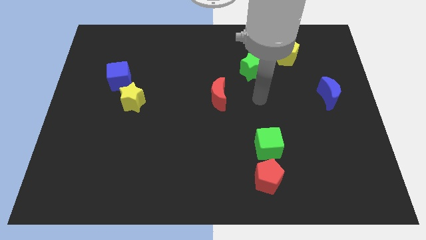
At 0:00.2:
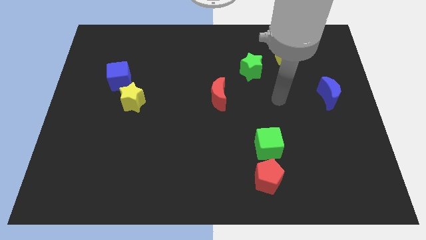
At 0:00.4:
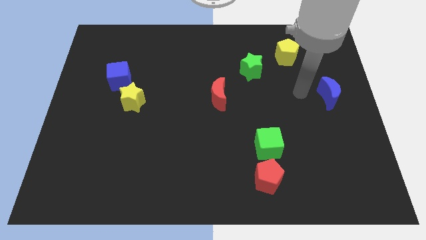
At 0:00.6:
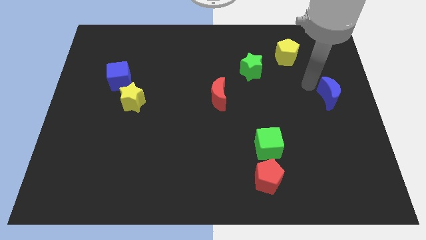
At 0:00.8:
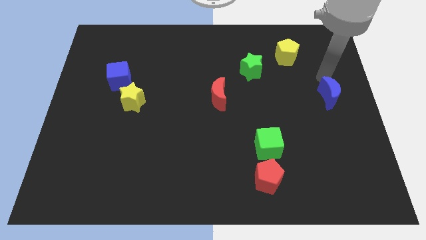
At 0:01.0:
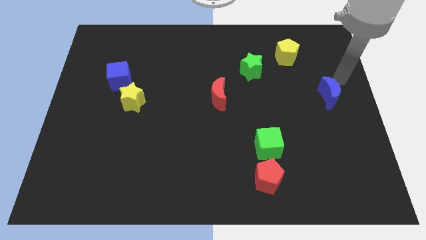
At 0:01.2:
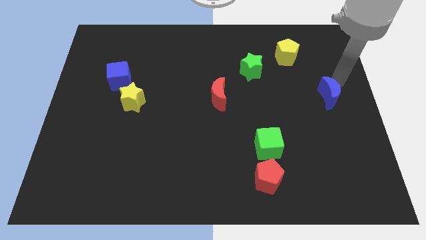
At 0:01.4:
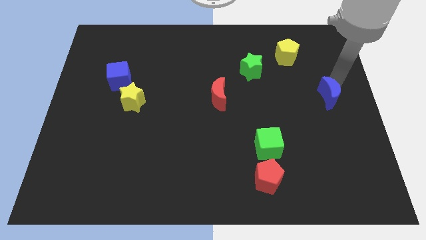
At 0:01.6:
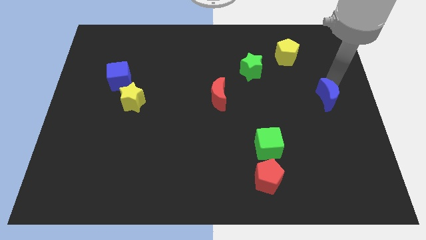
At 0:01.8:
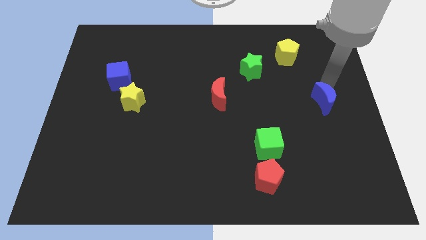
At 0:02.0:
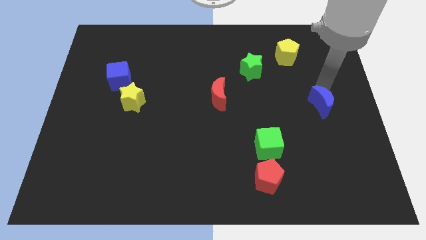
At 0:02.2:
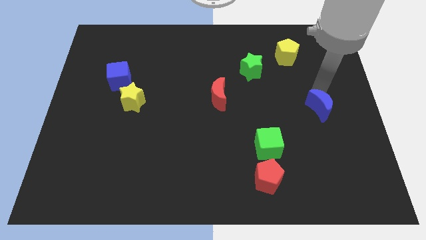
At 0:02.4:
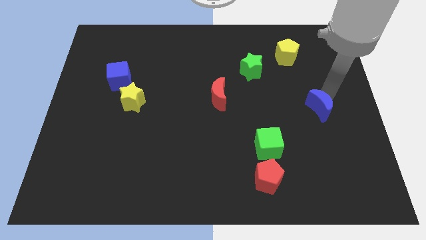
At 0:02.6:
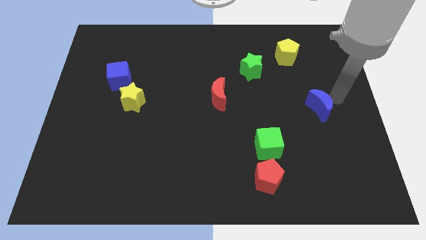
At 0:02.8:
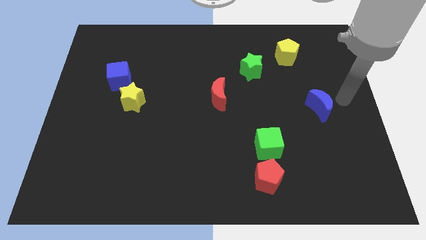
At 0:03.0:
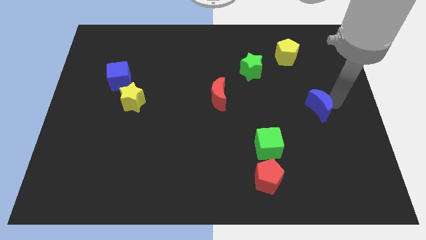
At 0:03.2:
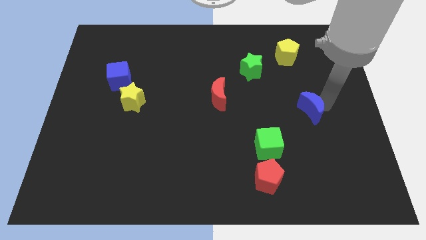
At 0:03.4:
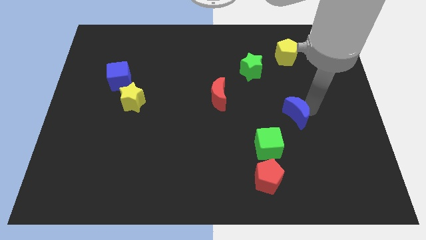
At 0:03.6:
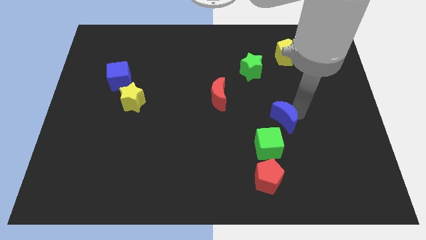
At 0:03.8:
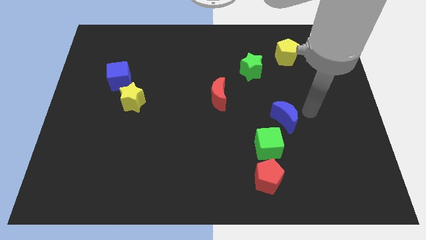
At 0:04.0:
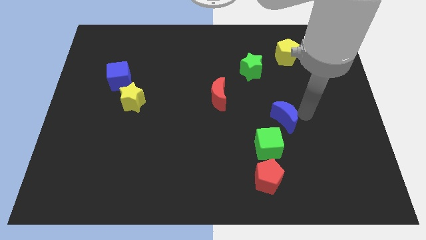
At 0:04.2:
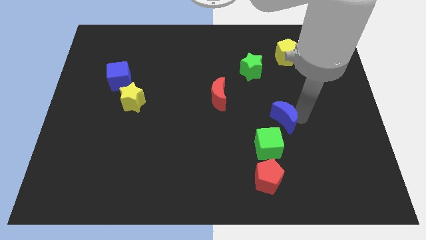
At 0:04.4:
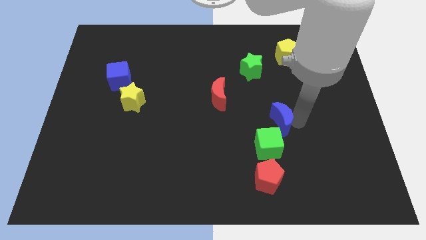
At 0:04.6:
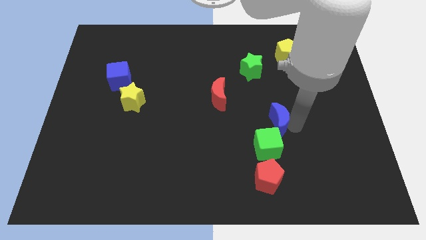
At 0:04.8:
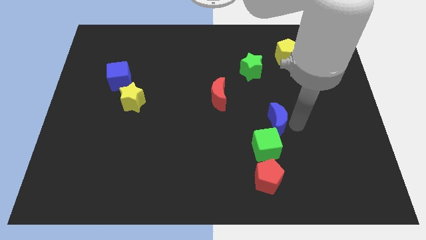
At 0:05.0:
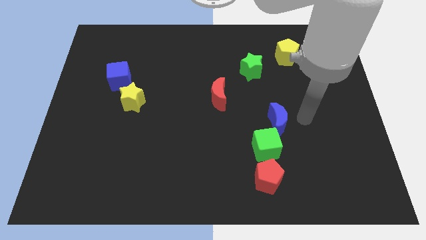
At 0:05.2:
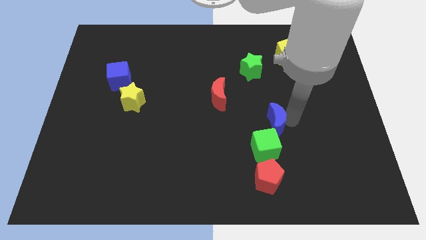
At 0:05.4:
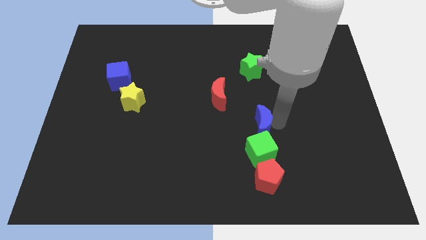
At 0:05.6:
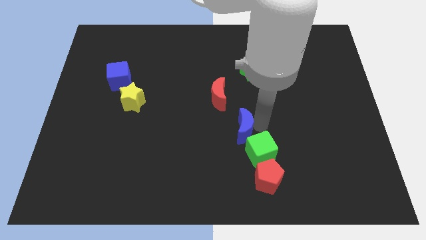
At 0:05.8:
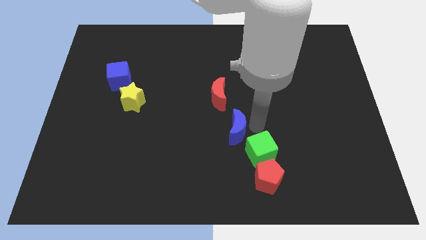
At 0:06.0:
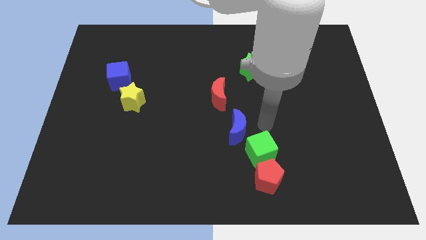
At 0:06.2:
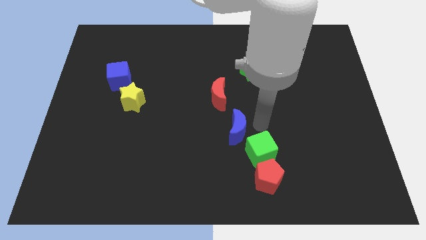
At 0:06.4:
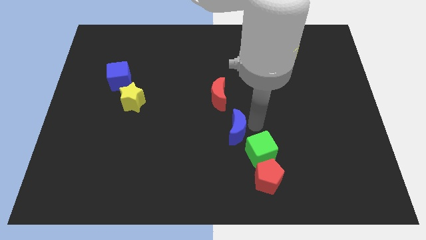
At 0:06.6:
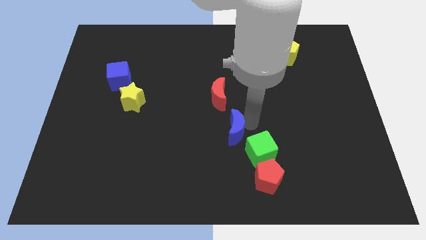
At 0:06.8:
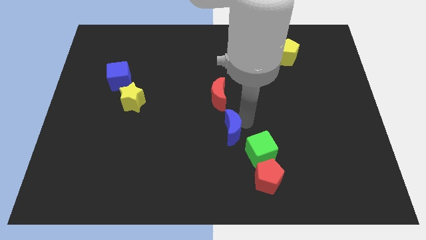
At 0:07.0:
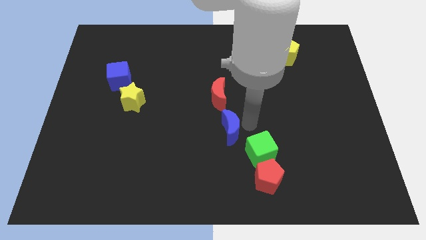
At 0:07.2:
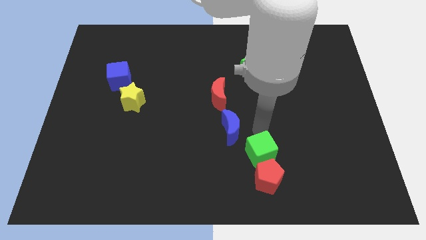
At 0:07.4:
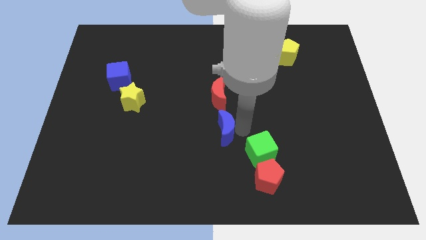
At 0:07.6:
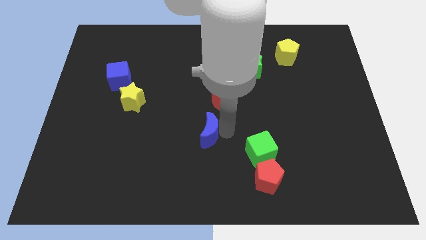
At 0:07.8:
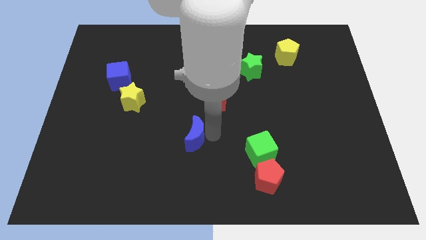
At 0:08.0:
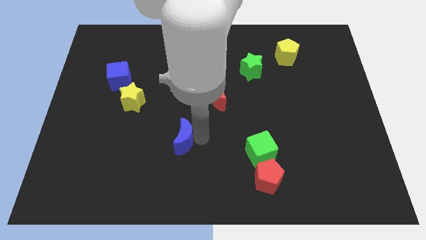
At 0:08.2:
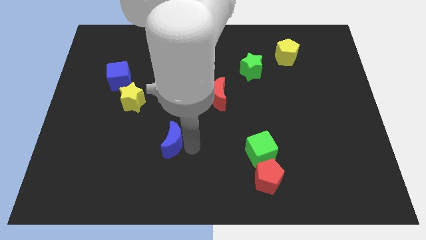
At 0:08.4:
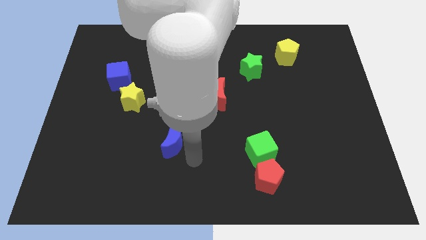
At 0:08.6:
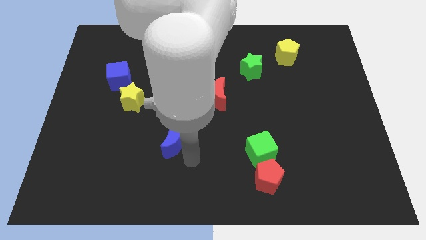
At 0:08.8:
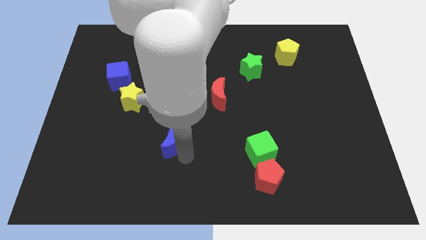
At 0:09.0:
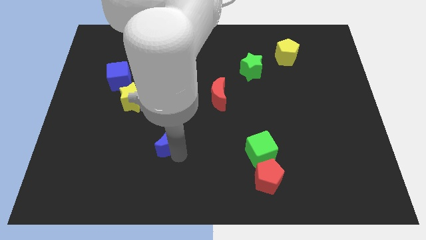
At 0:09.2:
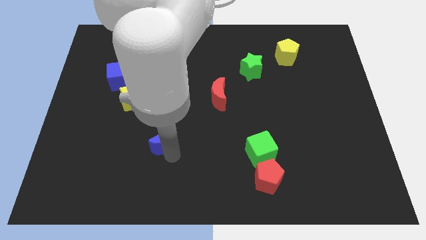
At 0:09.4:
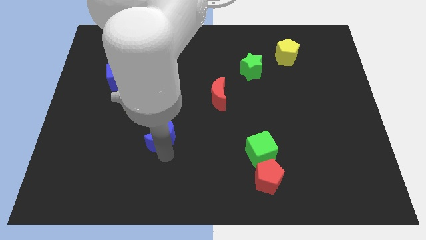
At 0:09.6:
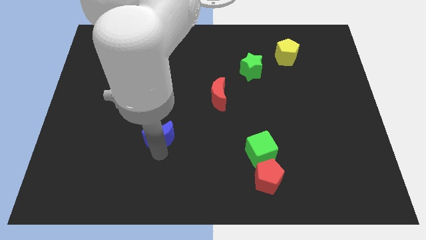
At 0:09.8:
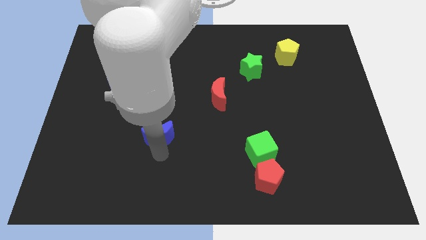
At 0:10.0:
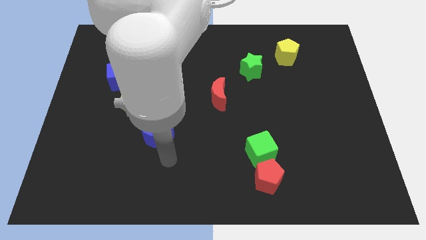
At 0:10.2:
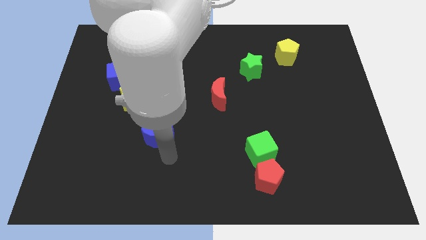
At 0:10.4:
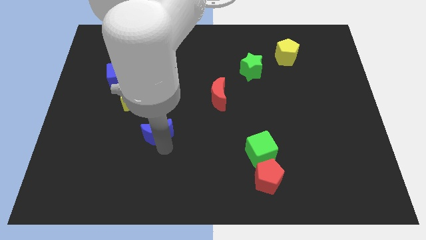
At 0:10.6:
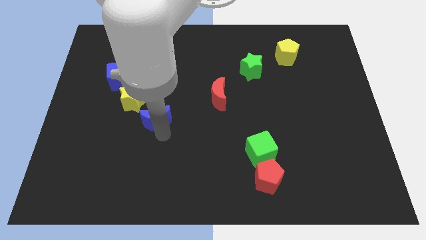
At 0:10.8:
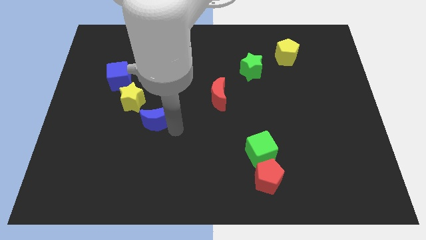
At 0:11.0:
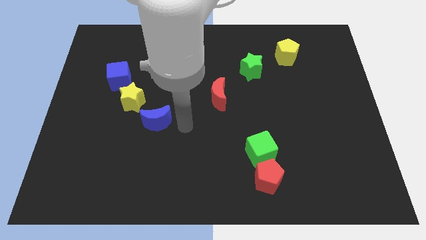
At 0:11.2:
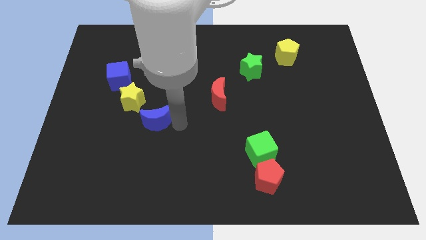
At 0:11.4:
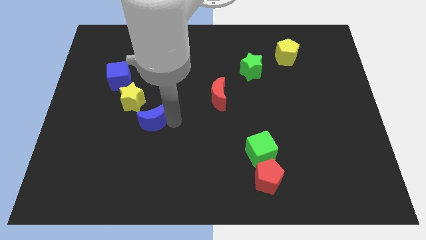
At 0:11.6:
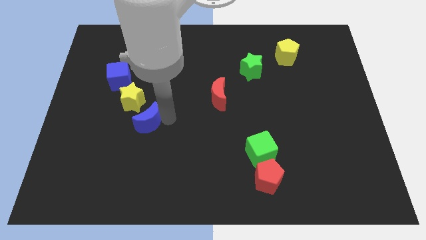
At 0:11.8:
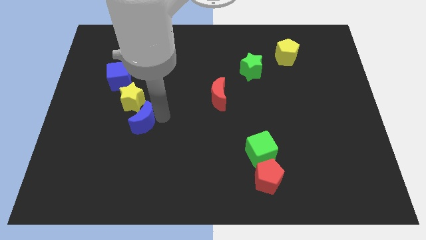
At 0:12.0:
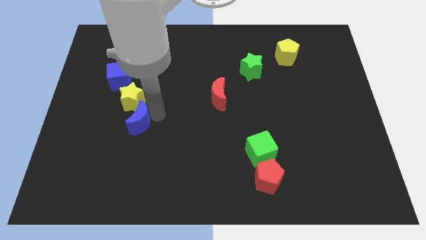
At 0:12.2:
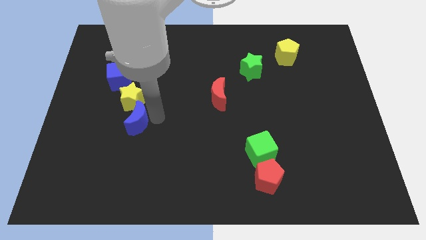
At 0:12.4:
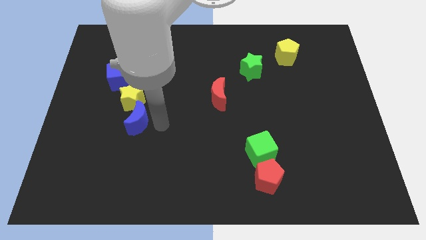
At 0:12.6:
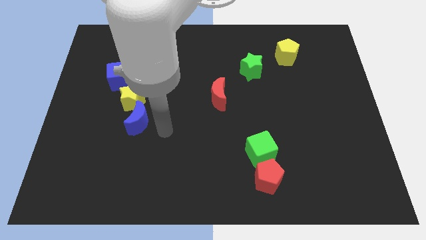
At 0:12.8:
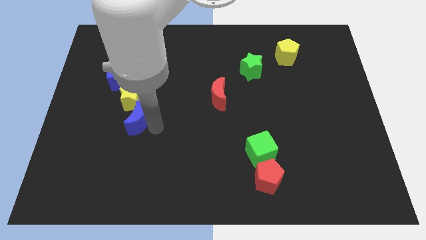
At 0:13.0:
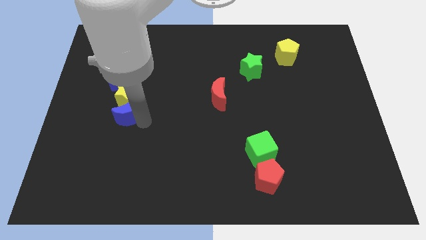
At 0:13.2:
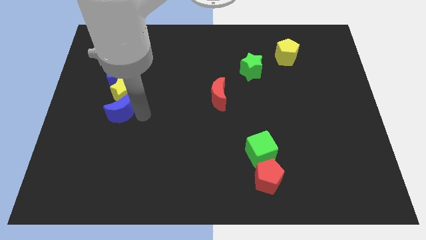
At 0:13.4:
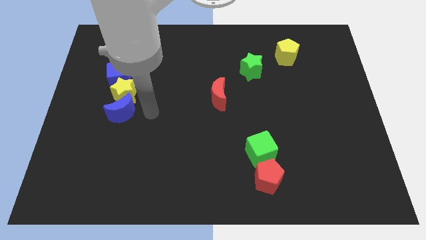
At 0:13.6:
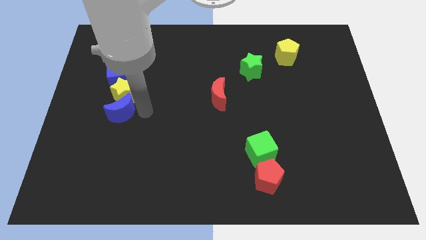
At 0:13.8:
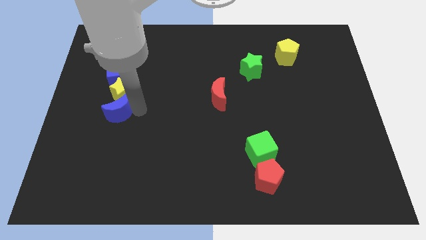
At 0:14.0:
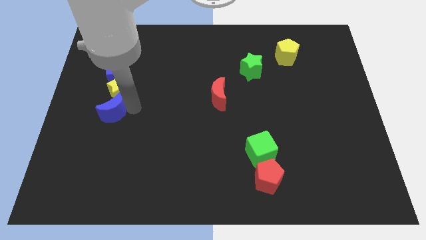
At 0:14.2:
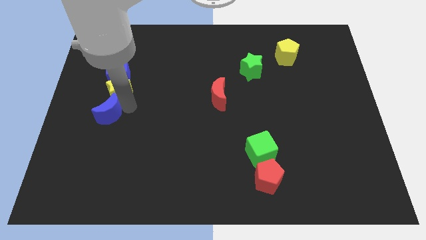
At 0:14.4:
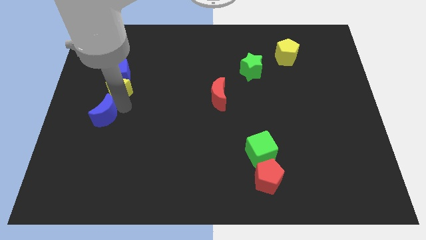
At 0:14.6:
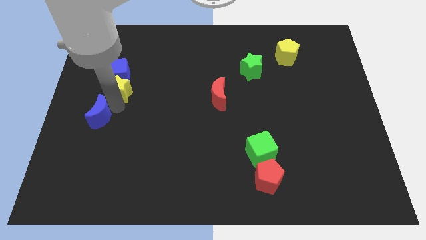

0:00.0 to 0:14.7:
slide the blue moon to the left side of the board
